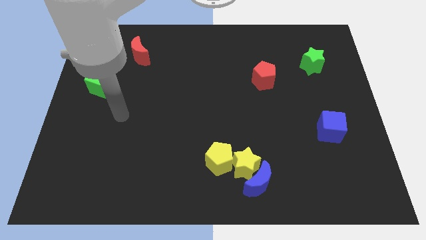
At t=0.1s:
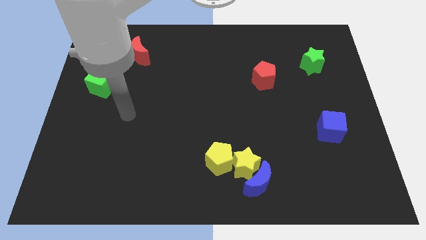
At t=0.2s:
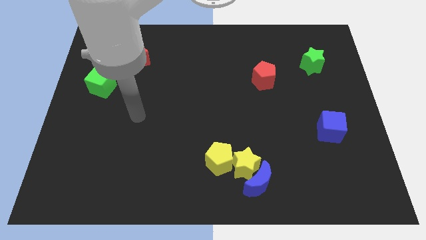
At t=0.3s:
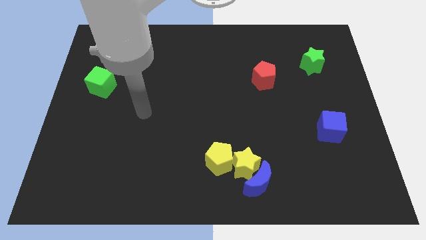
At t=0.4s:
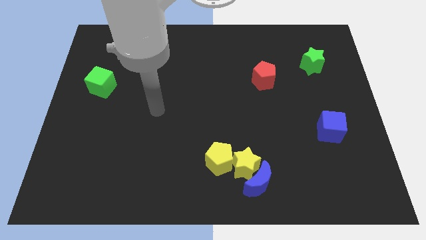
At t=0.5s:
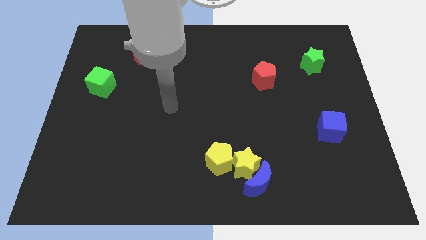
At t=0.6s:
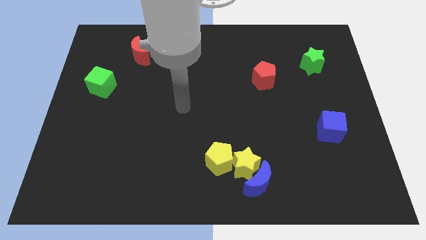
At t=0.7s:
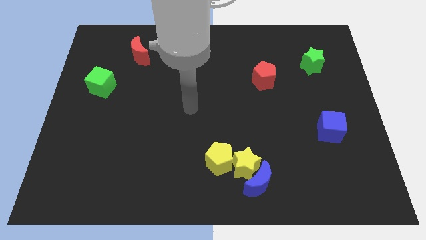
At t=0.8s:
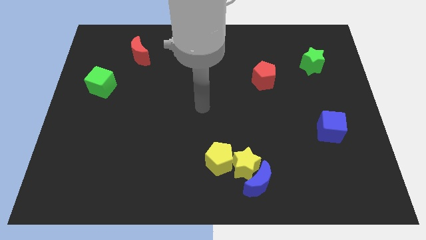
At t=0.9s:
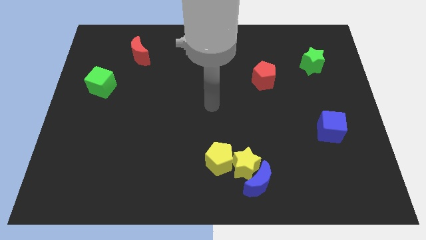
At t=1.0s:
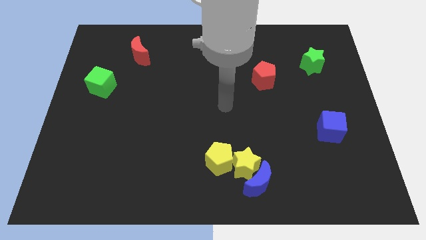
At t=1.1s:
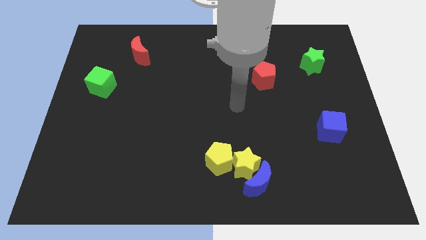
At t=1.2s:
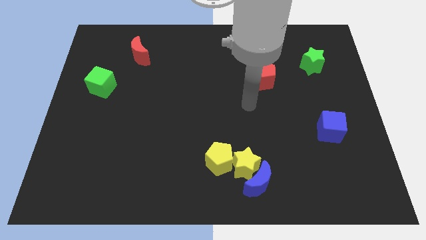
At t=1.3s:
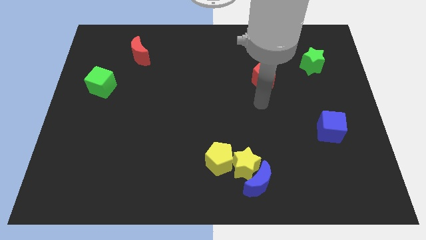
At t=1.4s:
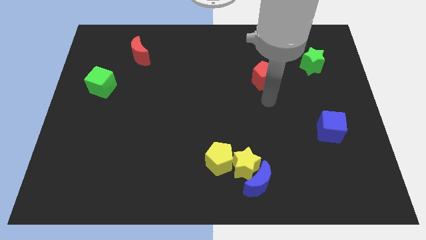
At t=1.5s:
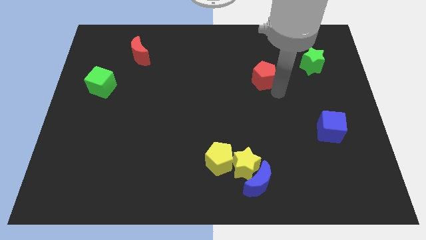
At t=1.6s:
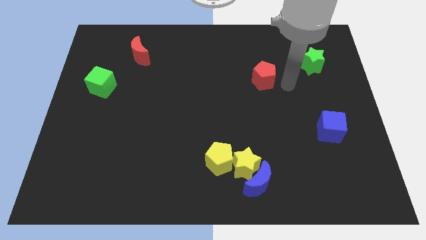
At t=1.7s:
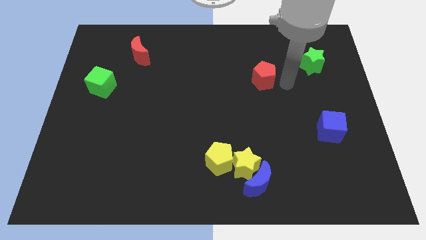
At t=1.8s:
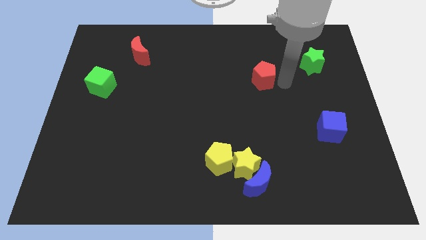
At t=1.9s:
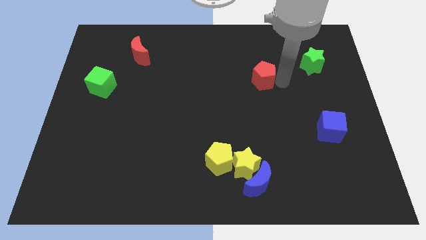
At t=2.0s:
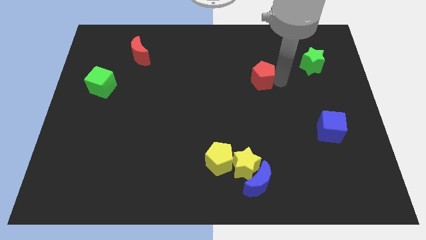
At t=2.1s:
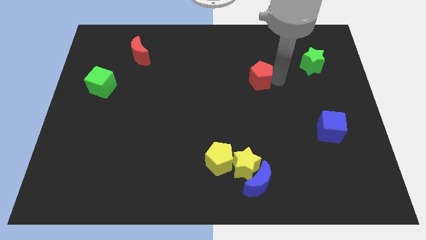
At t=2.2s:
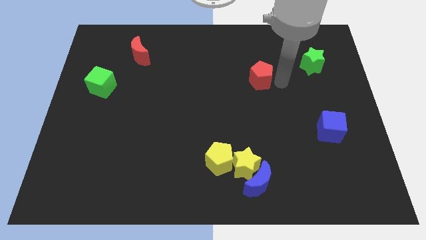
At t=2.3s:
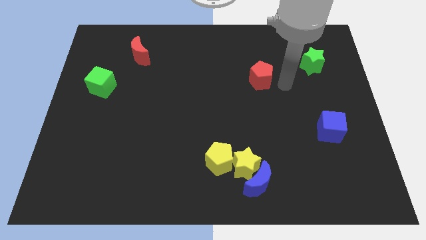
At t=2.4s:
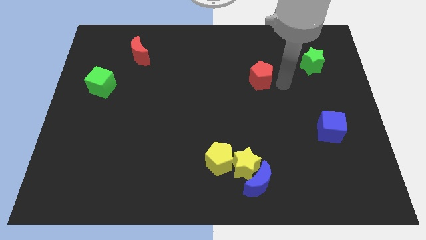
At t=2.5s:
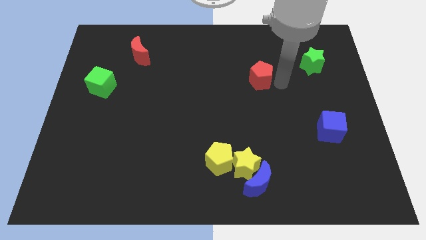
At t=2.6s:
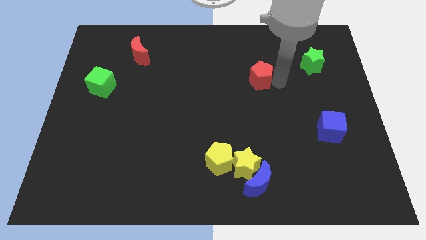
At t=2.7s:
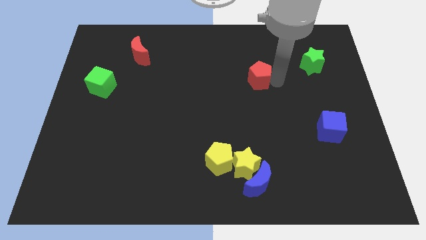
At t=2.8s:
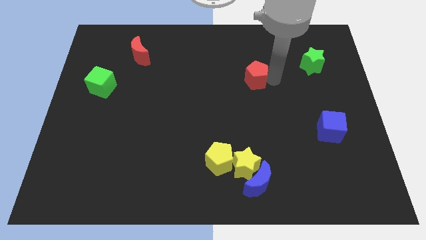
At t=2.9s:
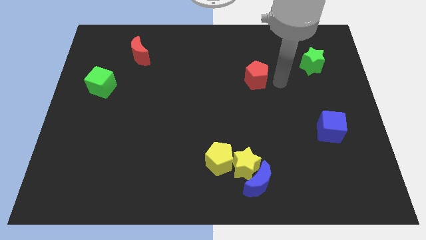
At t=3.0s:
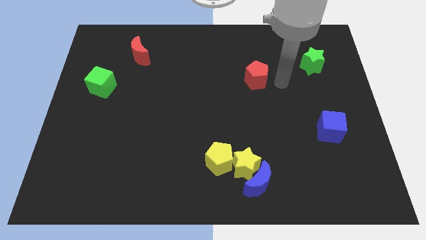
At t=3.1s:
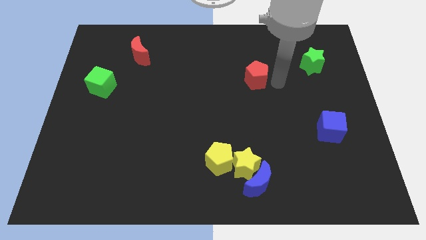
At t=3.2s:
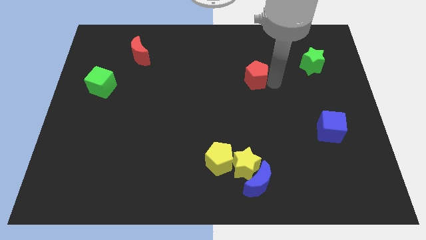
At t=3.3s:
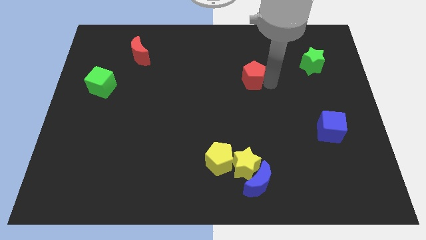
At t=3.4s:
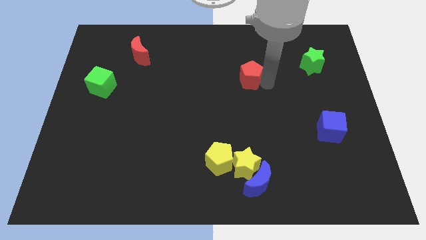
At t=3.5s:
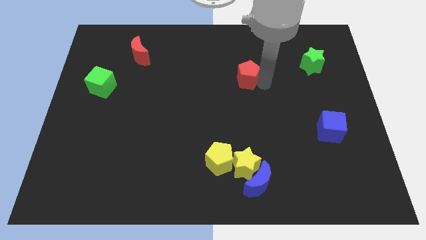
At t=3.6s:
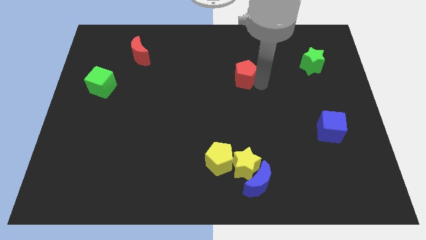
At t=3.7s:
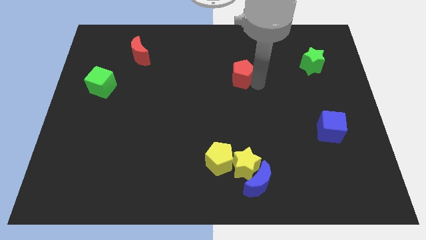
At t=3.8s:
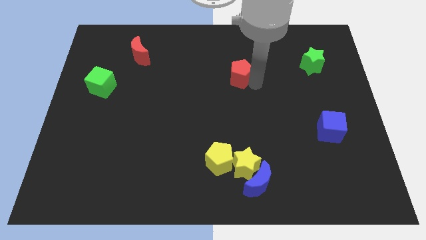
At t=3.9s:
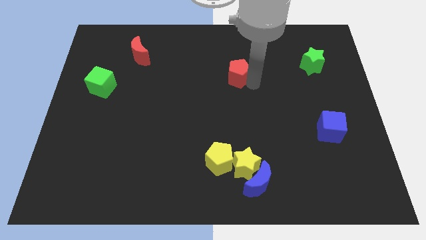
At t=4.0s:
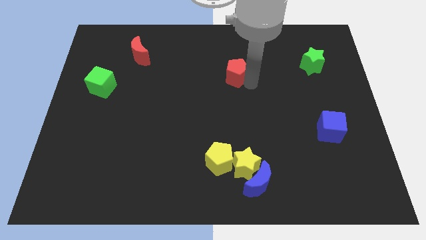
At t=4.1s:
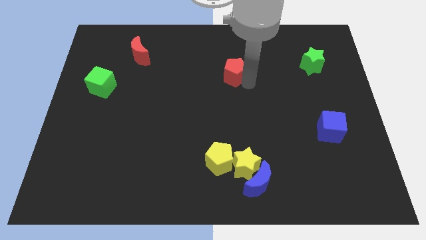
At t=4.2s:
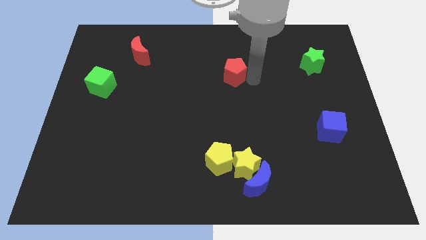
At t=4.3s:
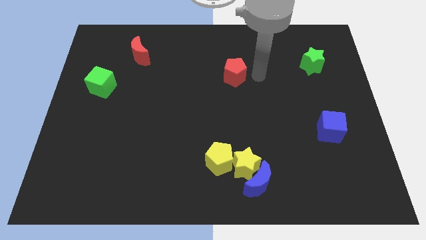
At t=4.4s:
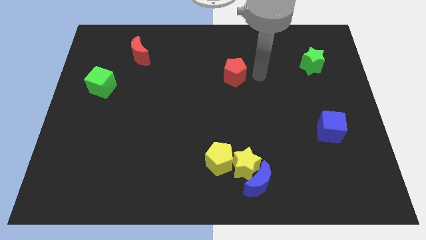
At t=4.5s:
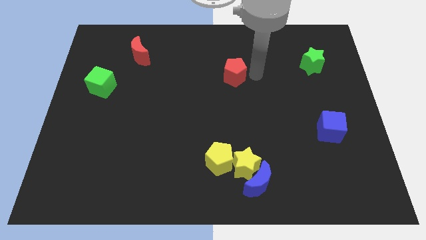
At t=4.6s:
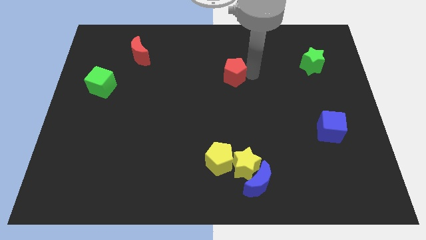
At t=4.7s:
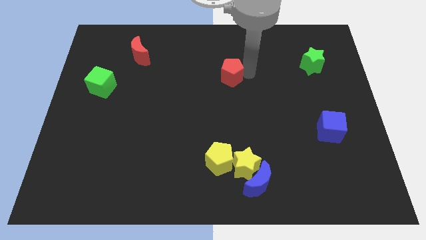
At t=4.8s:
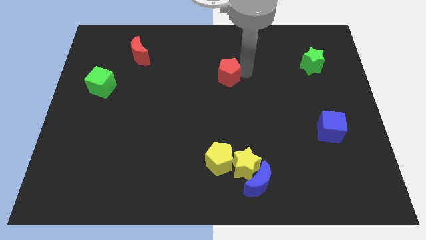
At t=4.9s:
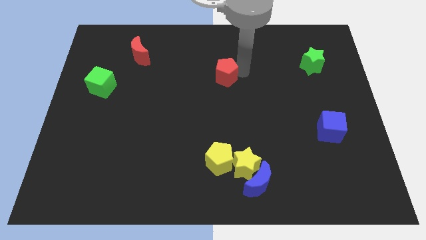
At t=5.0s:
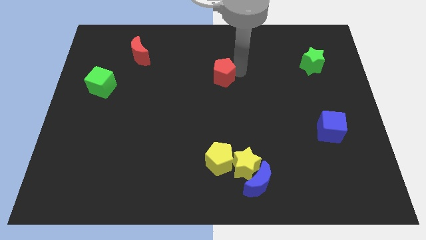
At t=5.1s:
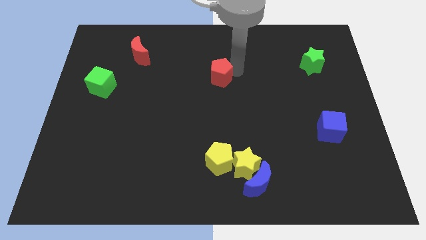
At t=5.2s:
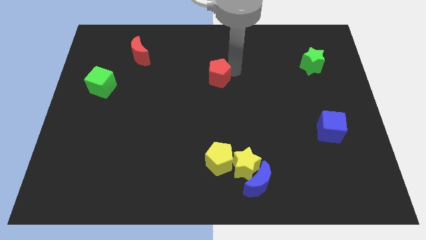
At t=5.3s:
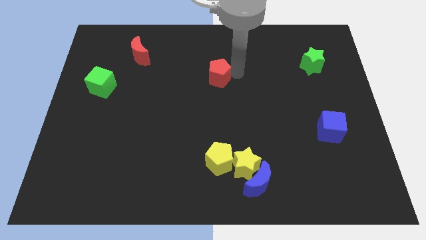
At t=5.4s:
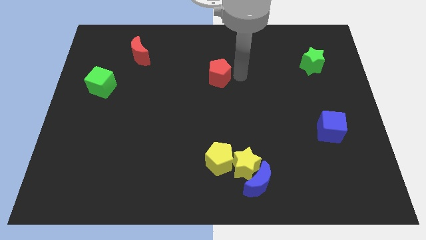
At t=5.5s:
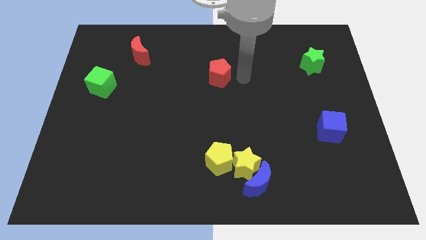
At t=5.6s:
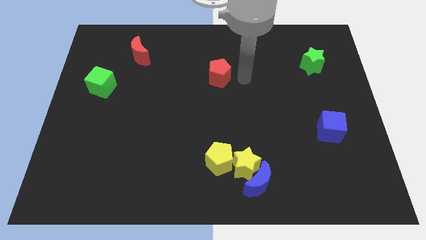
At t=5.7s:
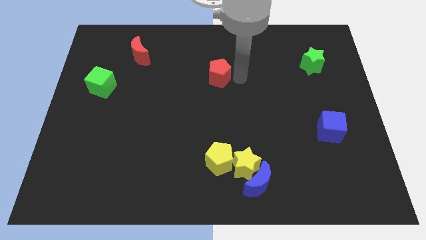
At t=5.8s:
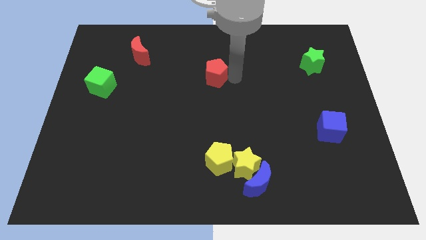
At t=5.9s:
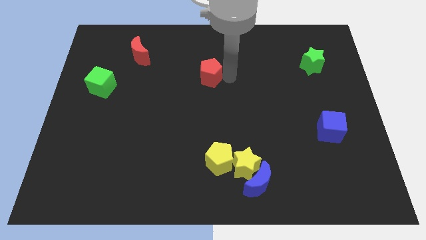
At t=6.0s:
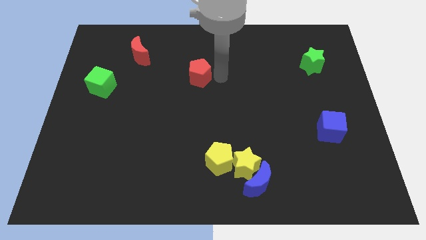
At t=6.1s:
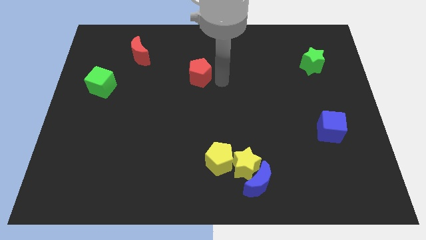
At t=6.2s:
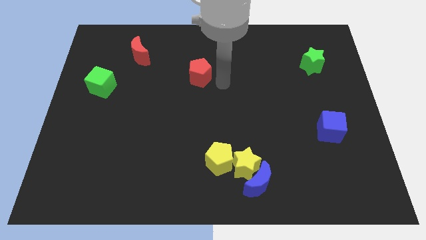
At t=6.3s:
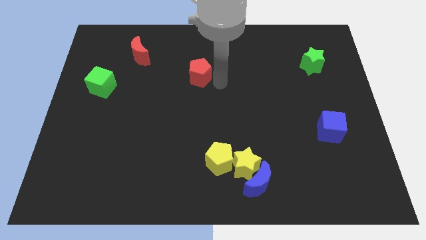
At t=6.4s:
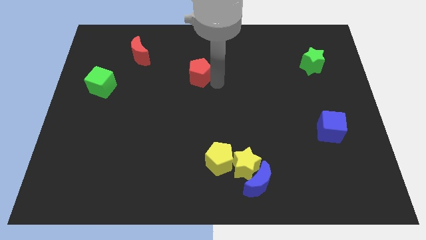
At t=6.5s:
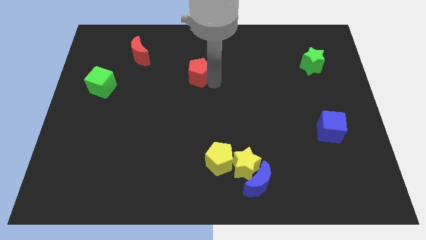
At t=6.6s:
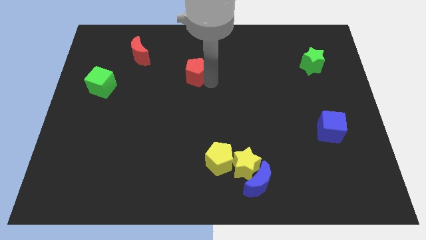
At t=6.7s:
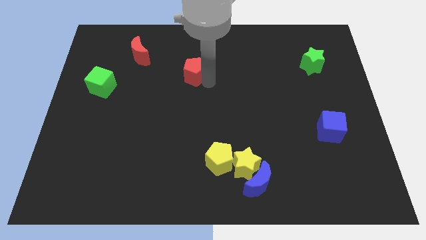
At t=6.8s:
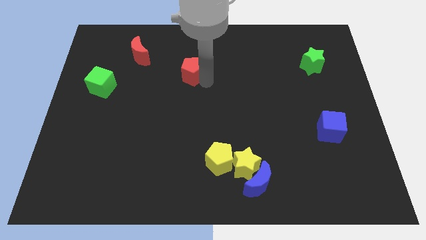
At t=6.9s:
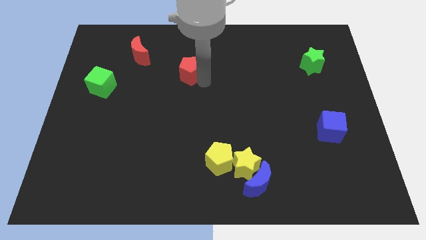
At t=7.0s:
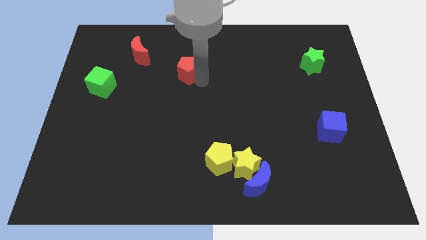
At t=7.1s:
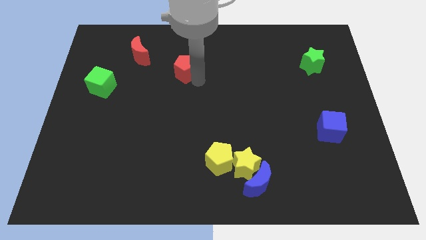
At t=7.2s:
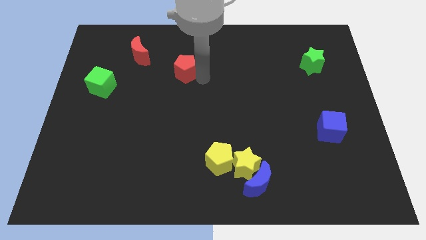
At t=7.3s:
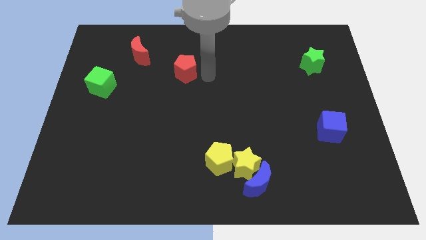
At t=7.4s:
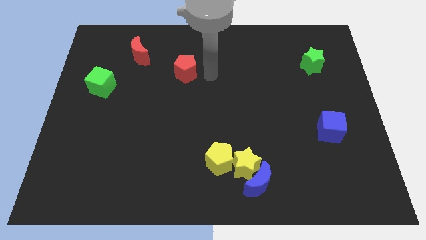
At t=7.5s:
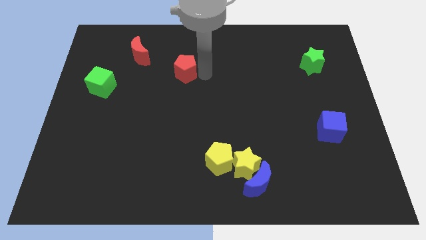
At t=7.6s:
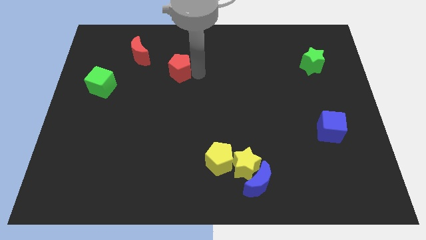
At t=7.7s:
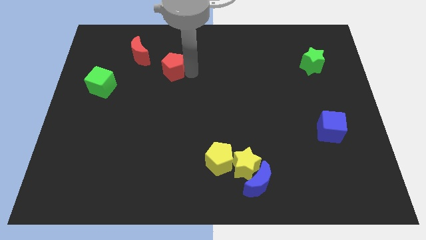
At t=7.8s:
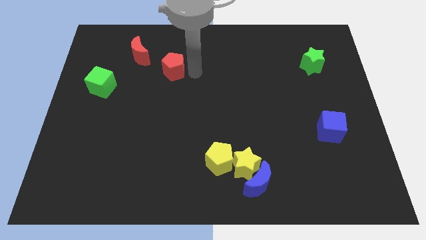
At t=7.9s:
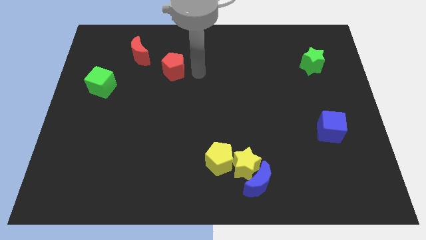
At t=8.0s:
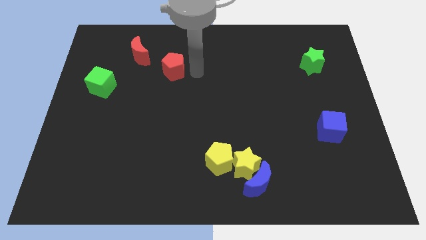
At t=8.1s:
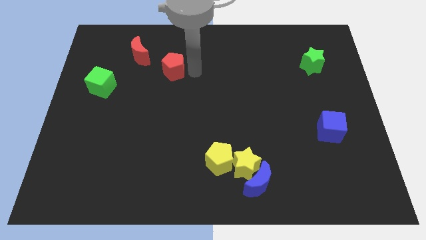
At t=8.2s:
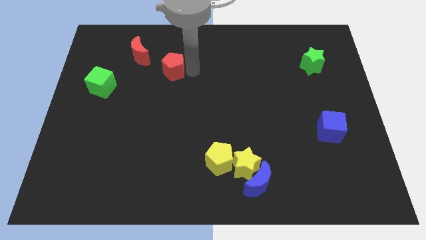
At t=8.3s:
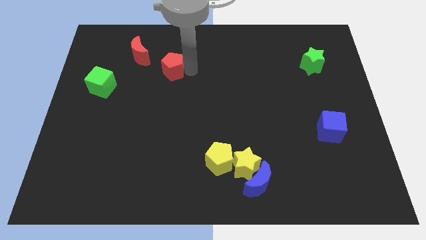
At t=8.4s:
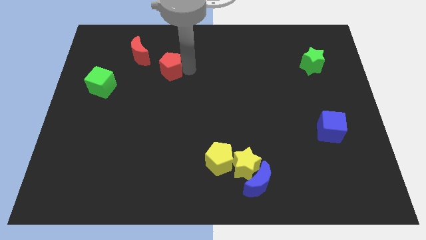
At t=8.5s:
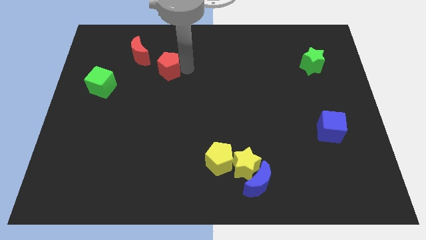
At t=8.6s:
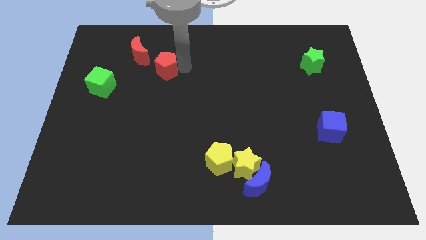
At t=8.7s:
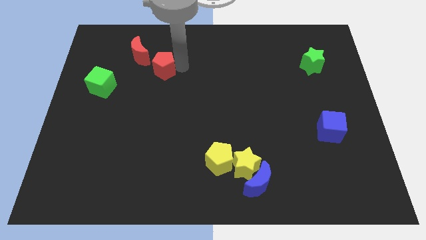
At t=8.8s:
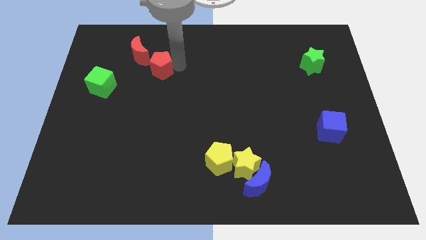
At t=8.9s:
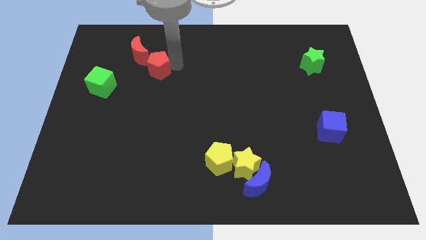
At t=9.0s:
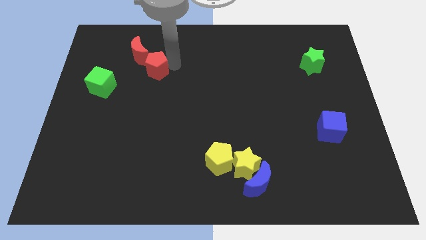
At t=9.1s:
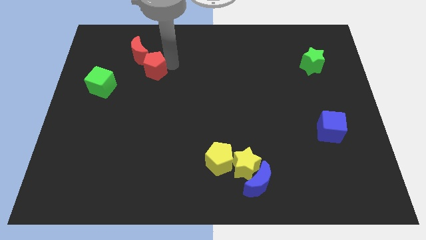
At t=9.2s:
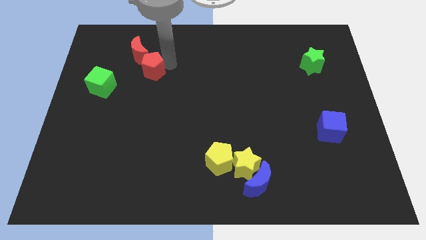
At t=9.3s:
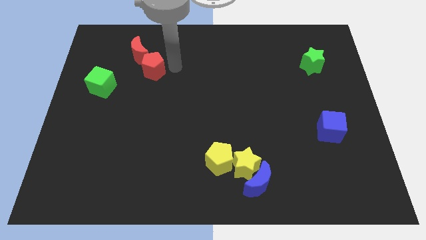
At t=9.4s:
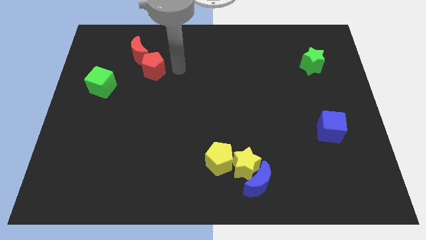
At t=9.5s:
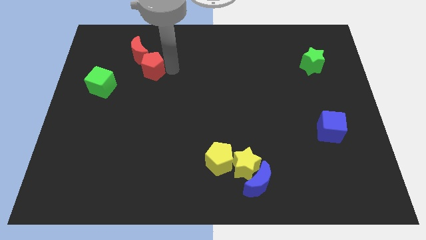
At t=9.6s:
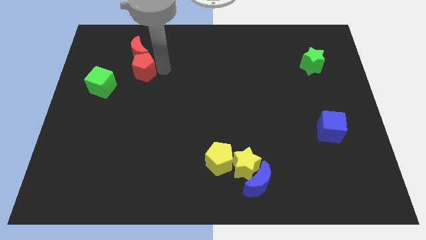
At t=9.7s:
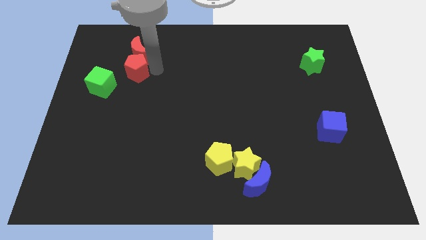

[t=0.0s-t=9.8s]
slide the red pentagon to the bottom left side of the red moon
